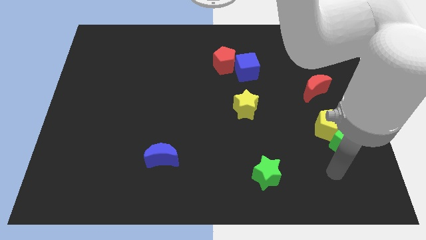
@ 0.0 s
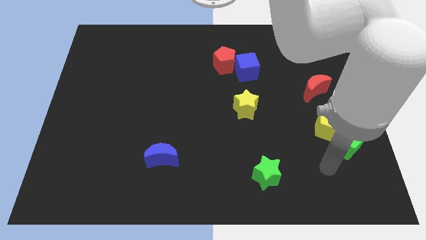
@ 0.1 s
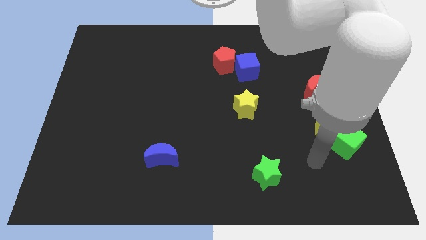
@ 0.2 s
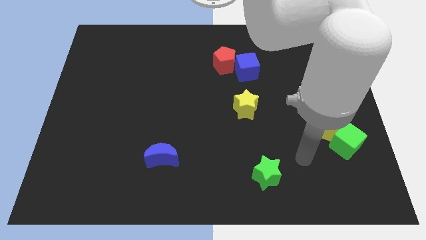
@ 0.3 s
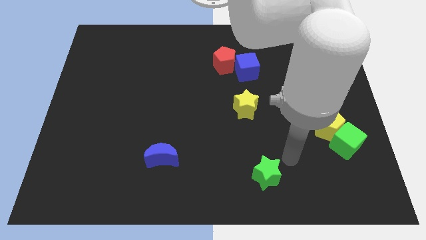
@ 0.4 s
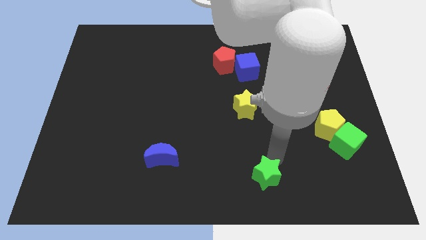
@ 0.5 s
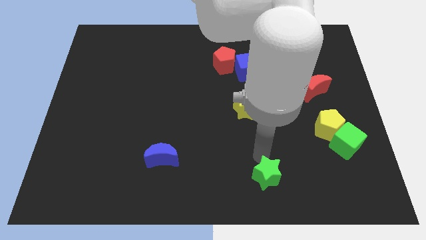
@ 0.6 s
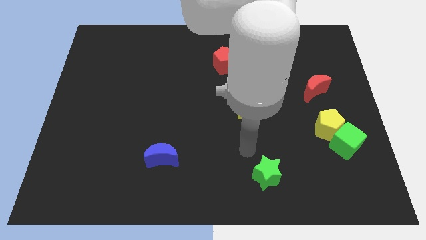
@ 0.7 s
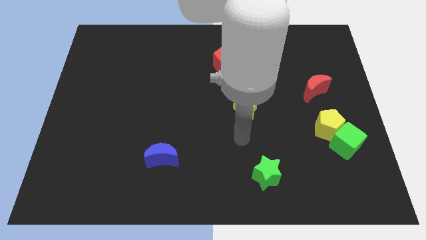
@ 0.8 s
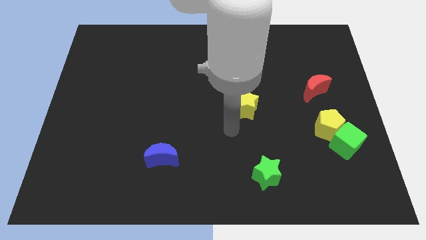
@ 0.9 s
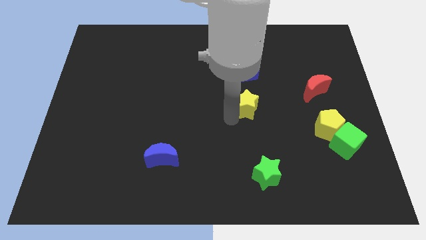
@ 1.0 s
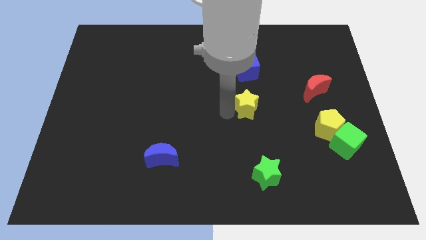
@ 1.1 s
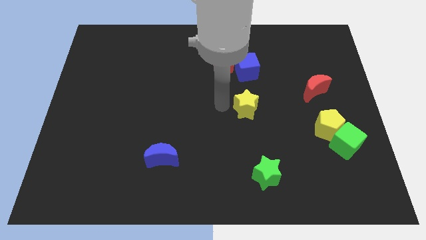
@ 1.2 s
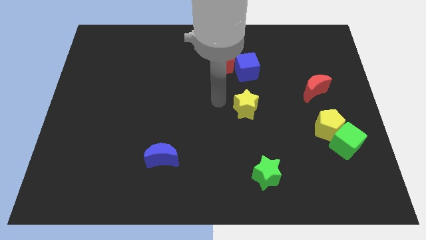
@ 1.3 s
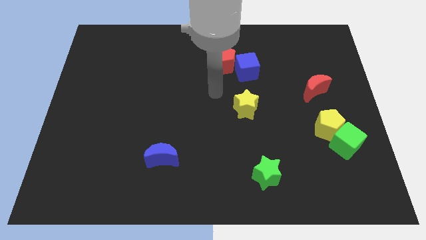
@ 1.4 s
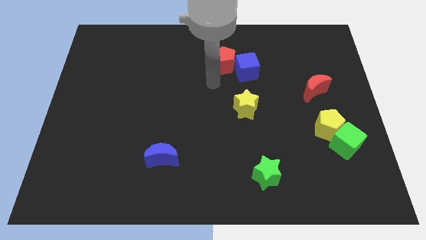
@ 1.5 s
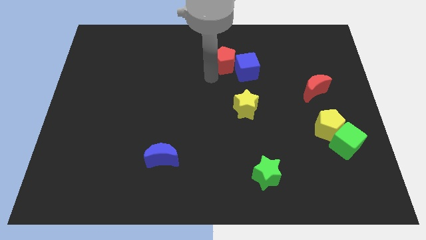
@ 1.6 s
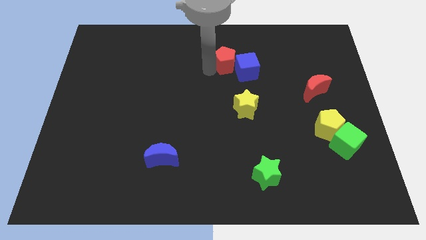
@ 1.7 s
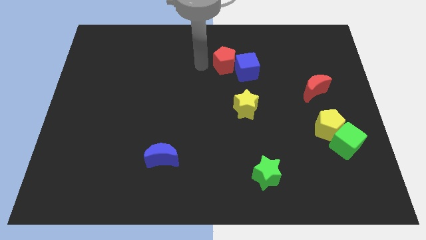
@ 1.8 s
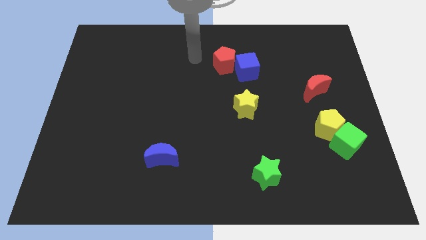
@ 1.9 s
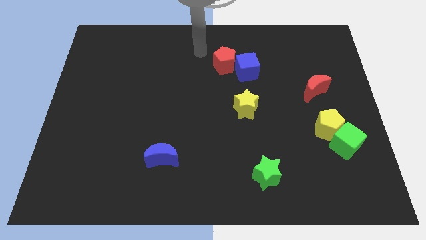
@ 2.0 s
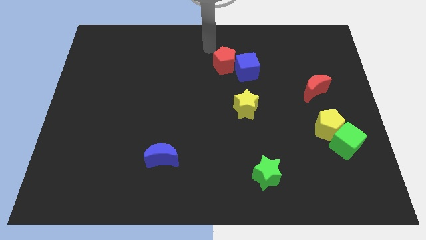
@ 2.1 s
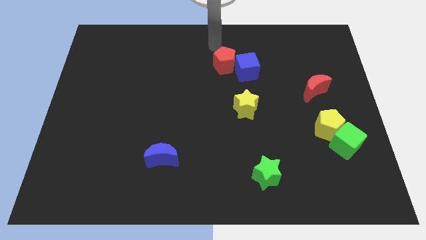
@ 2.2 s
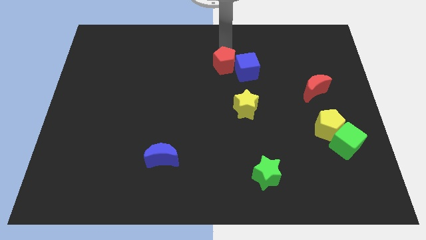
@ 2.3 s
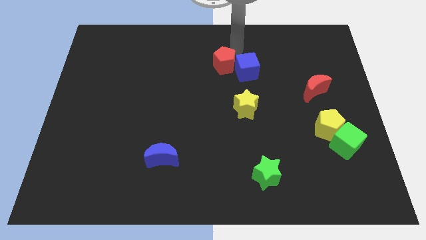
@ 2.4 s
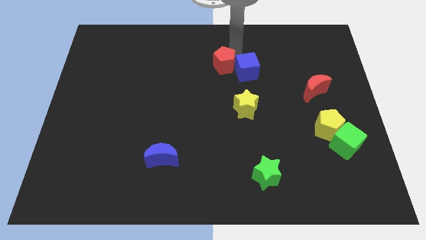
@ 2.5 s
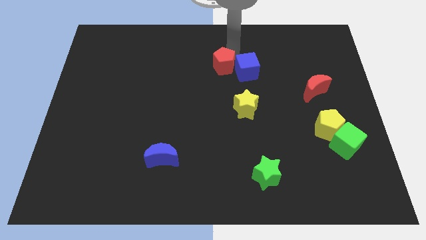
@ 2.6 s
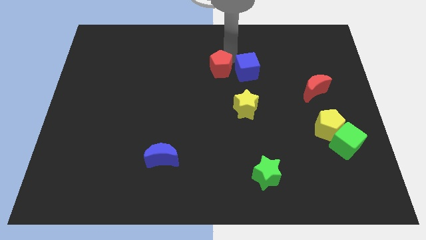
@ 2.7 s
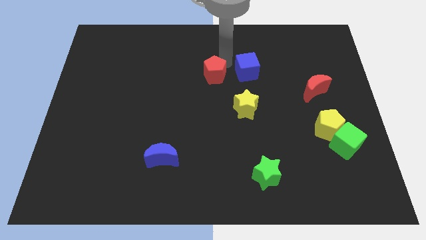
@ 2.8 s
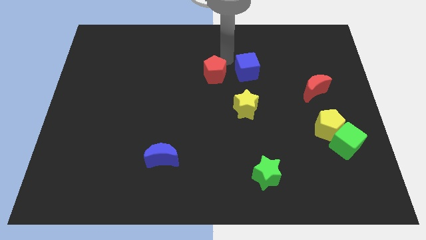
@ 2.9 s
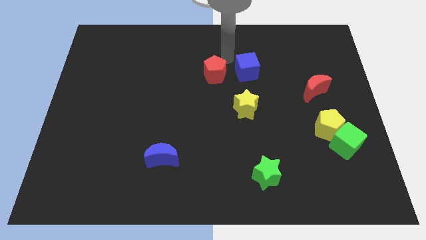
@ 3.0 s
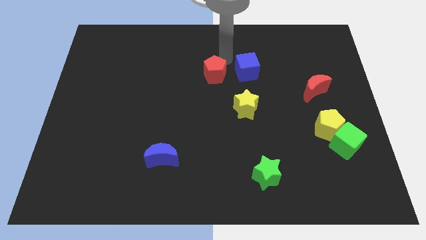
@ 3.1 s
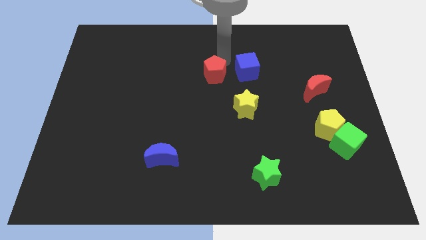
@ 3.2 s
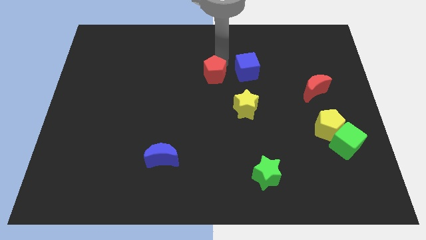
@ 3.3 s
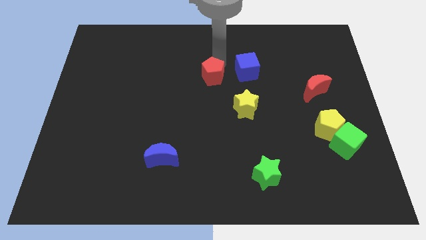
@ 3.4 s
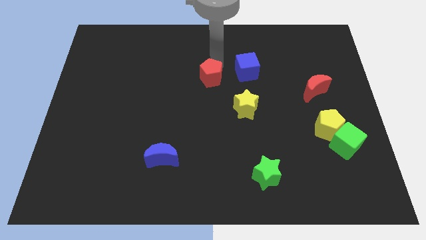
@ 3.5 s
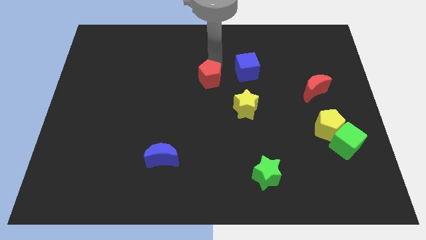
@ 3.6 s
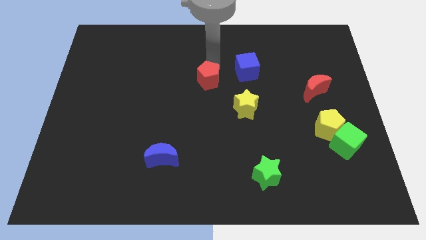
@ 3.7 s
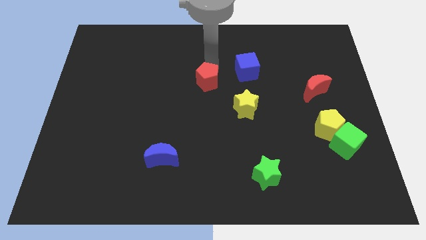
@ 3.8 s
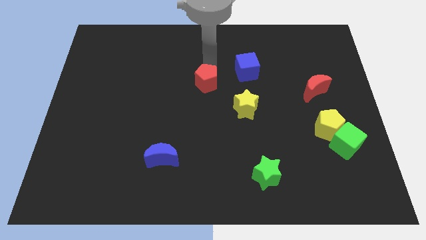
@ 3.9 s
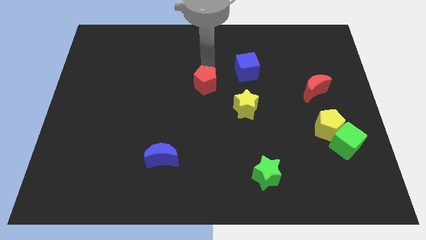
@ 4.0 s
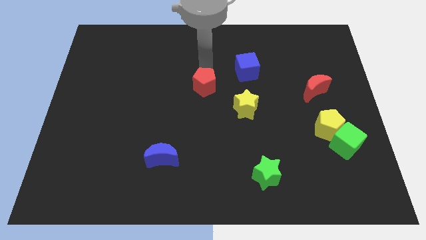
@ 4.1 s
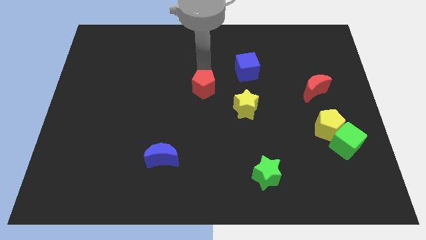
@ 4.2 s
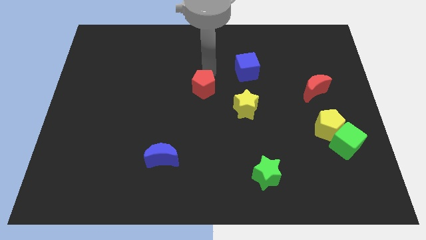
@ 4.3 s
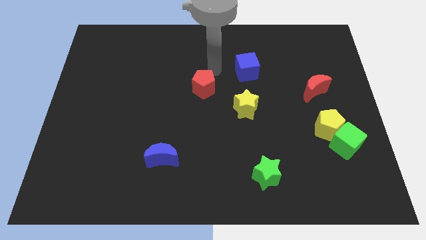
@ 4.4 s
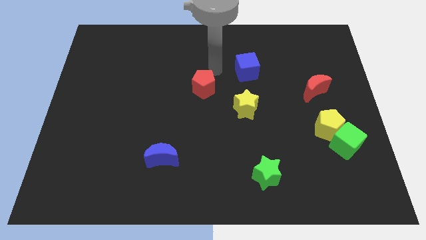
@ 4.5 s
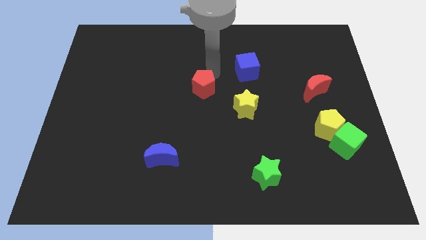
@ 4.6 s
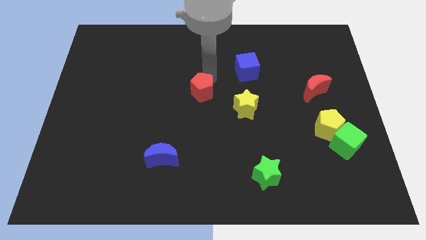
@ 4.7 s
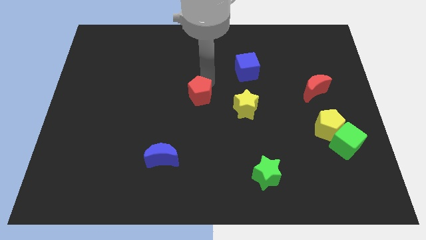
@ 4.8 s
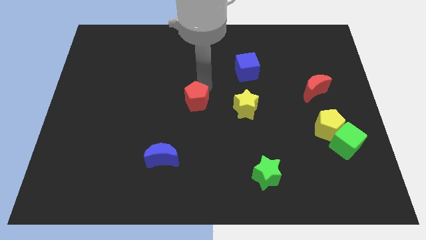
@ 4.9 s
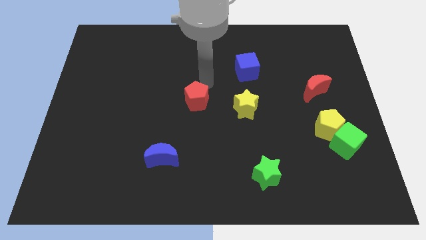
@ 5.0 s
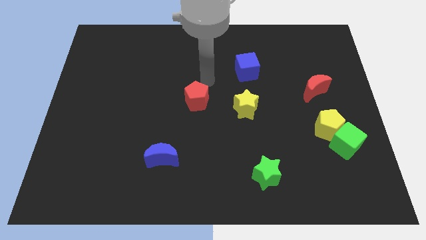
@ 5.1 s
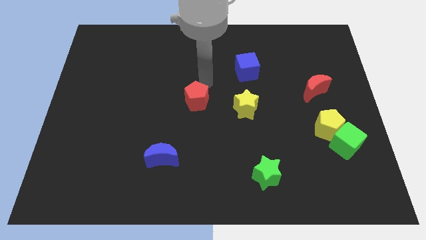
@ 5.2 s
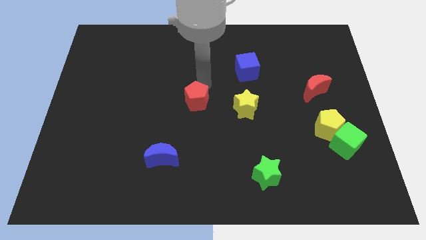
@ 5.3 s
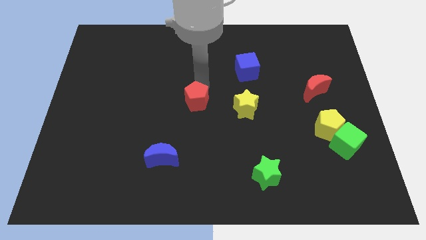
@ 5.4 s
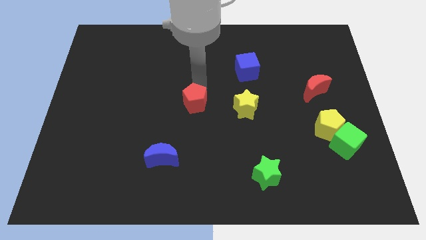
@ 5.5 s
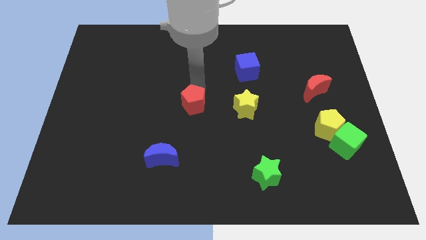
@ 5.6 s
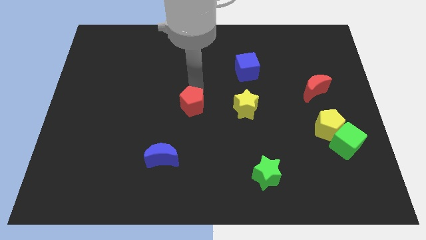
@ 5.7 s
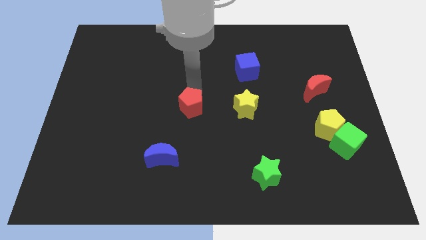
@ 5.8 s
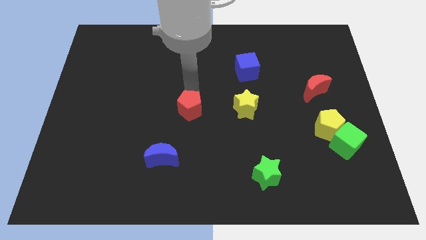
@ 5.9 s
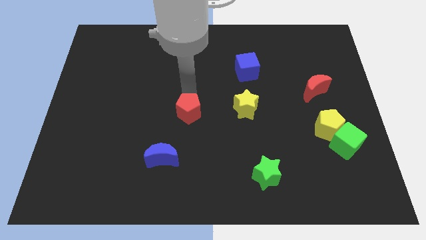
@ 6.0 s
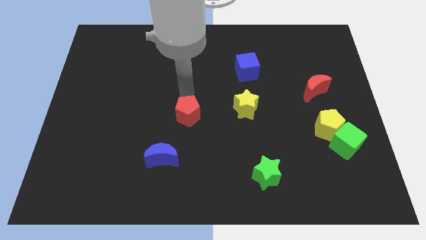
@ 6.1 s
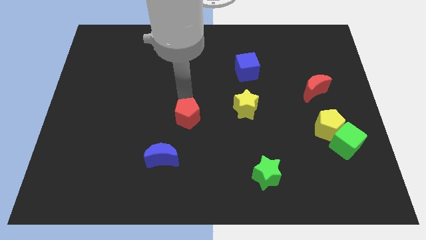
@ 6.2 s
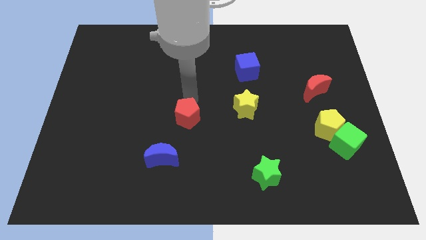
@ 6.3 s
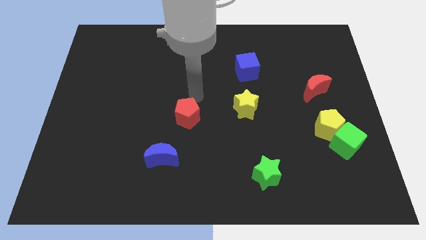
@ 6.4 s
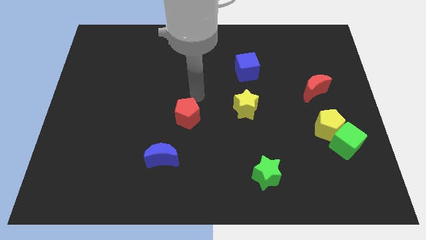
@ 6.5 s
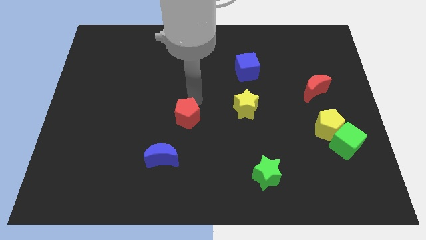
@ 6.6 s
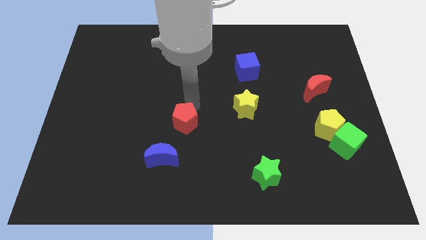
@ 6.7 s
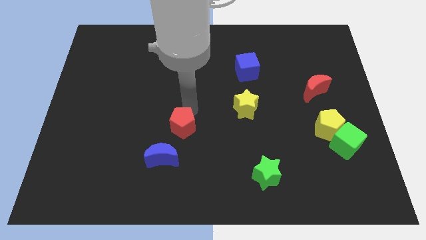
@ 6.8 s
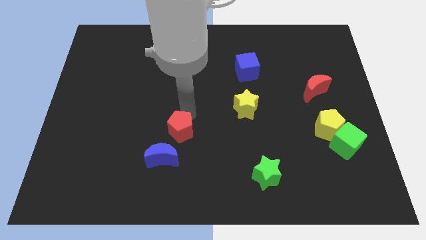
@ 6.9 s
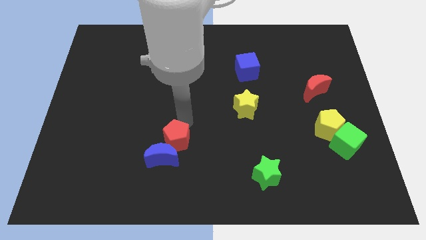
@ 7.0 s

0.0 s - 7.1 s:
slide the red pentagon towards the blue moon

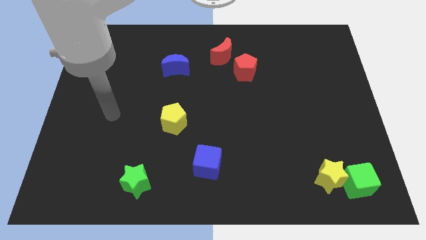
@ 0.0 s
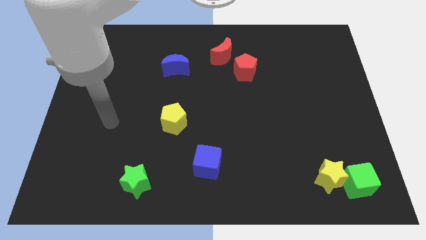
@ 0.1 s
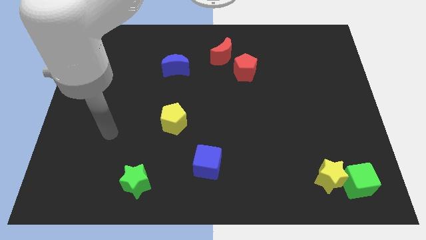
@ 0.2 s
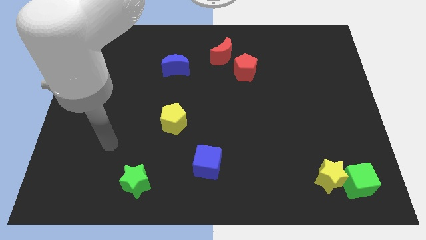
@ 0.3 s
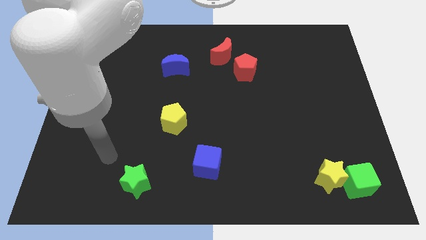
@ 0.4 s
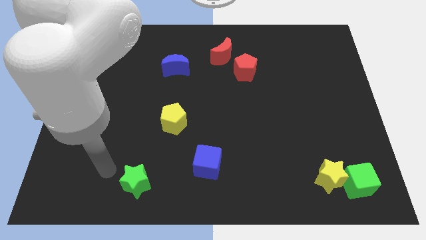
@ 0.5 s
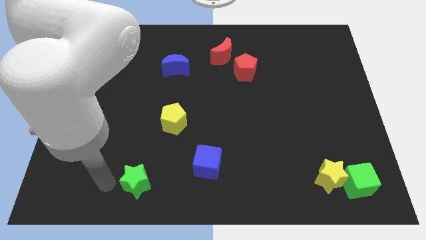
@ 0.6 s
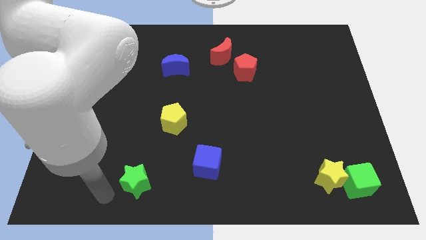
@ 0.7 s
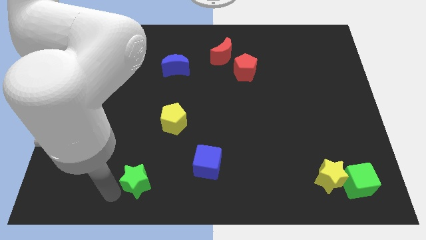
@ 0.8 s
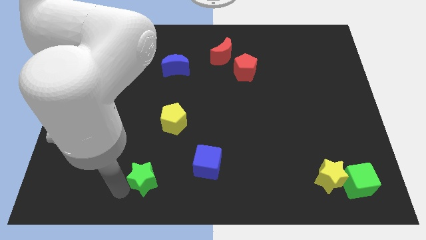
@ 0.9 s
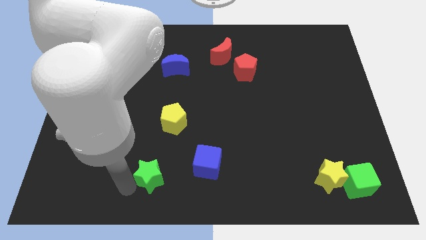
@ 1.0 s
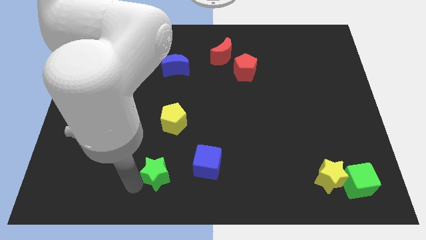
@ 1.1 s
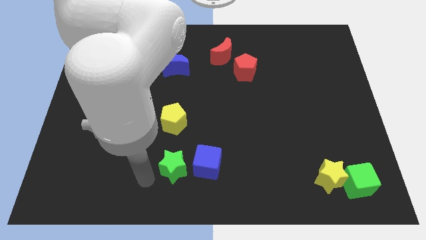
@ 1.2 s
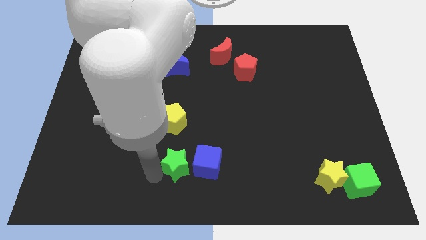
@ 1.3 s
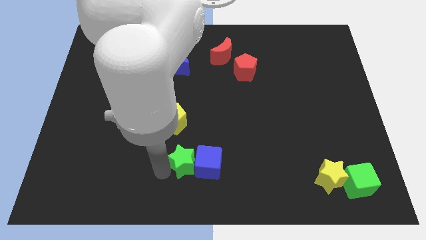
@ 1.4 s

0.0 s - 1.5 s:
put the green star next to the blue cube

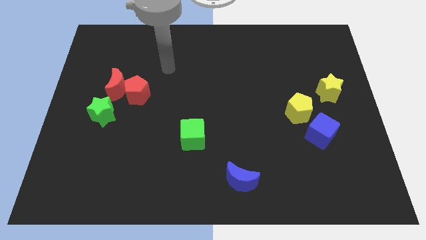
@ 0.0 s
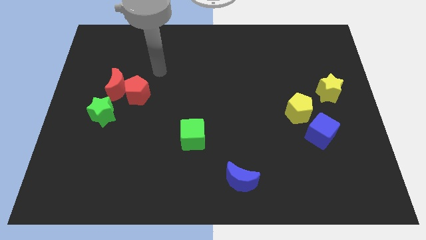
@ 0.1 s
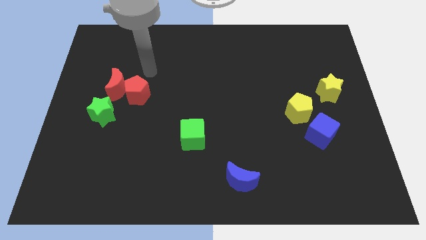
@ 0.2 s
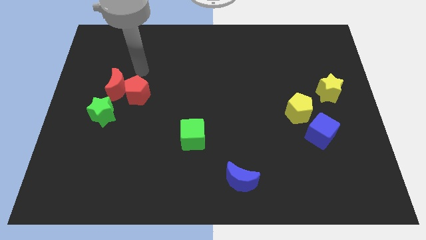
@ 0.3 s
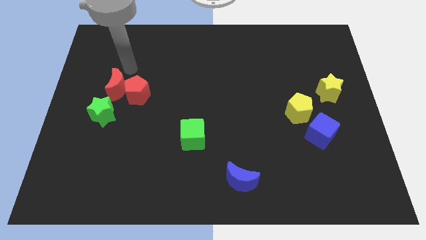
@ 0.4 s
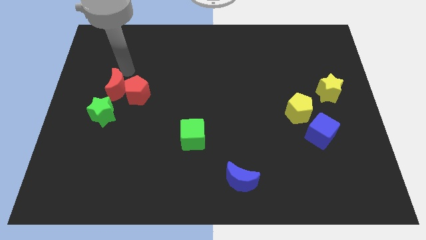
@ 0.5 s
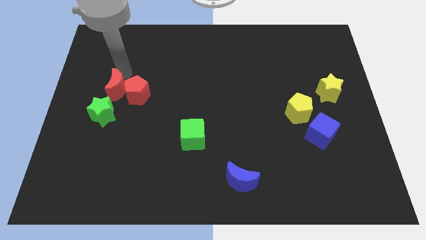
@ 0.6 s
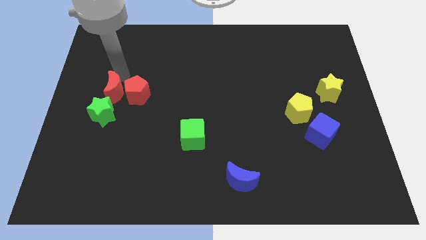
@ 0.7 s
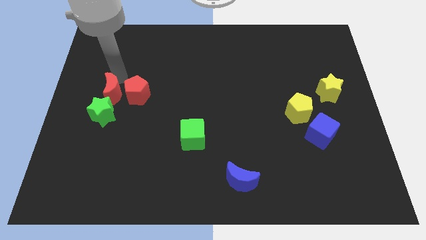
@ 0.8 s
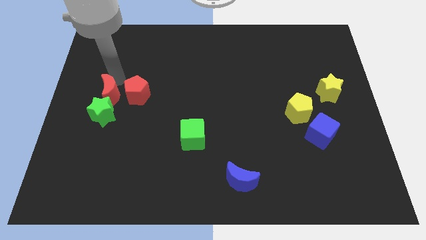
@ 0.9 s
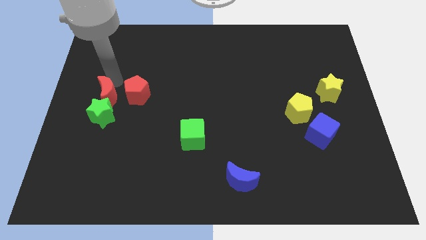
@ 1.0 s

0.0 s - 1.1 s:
put the red moon close to the green star
